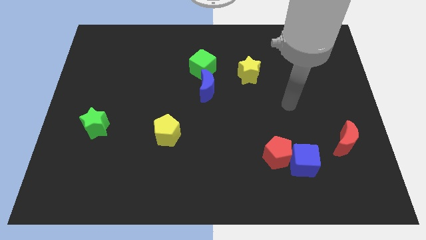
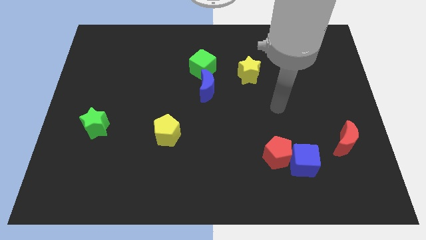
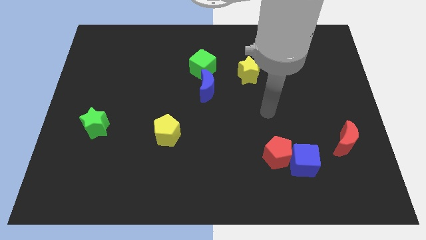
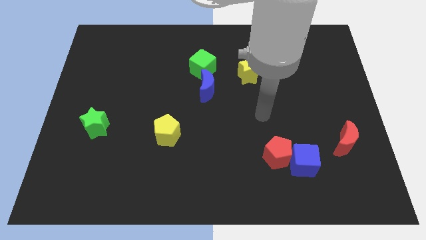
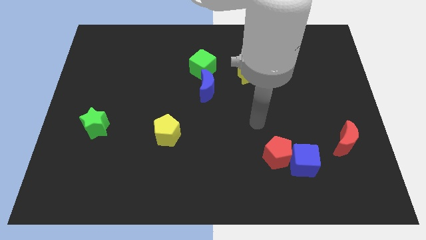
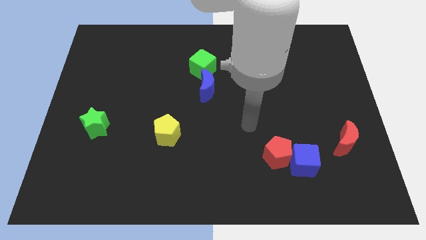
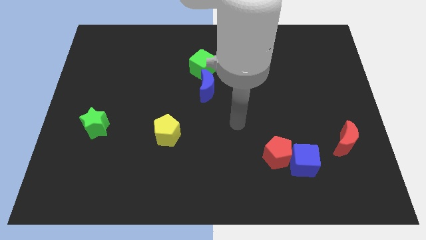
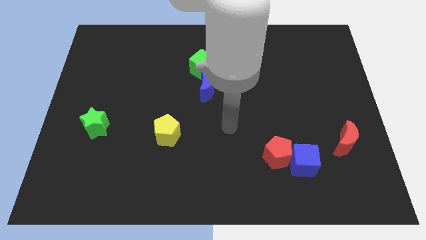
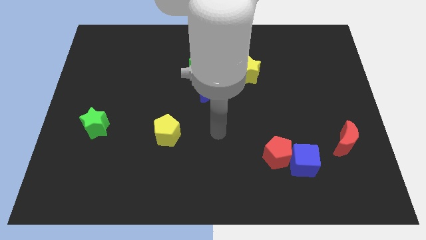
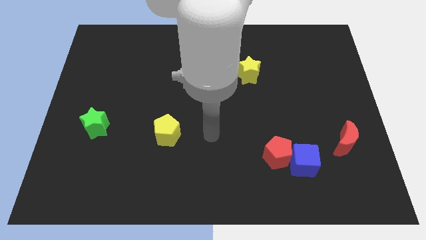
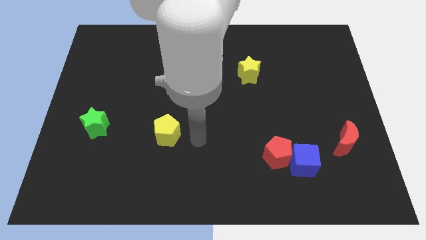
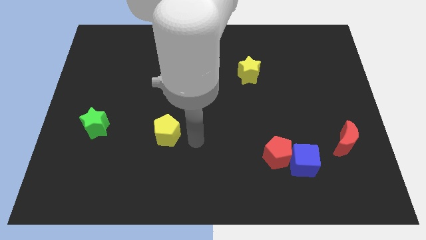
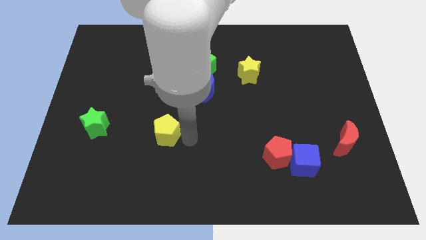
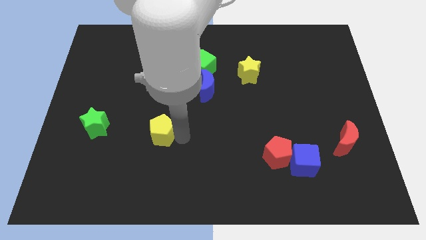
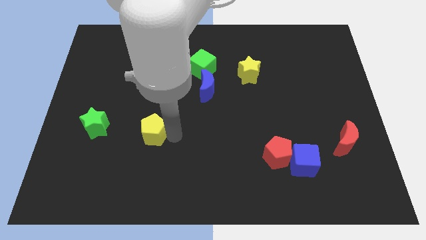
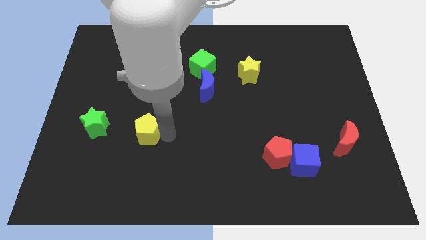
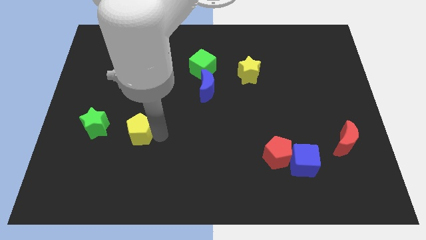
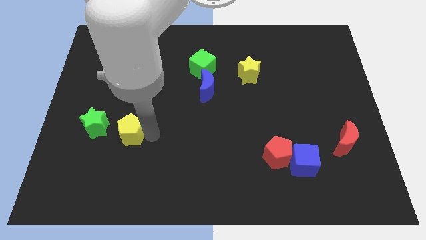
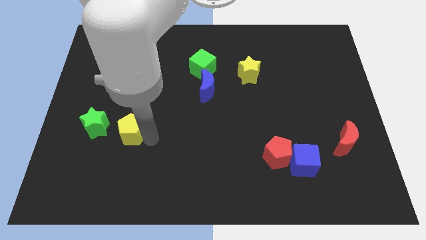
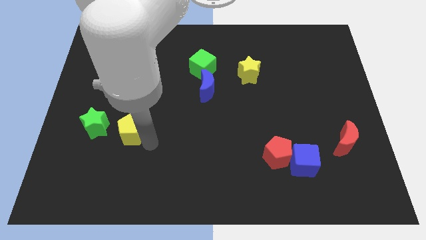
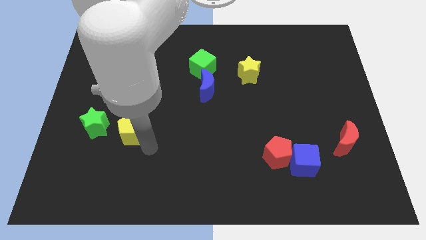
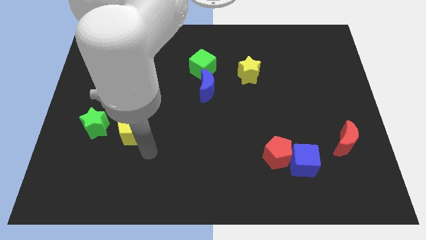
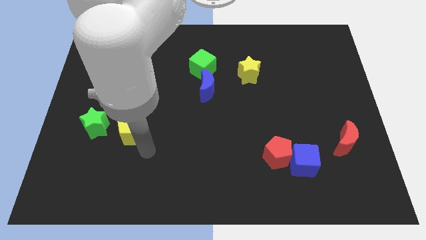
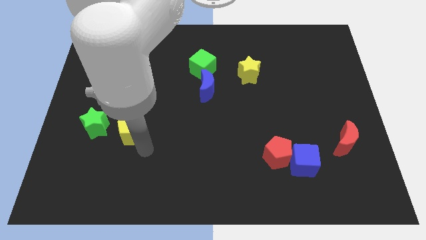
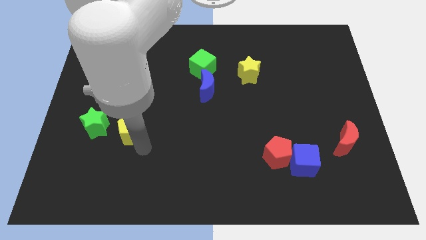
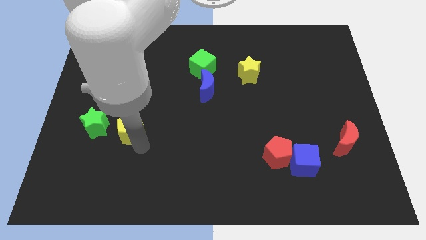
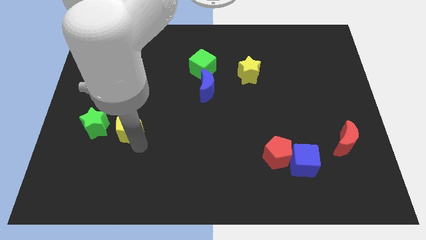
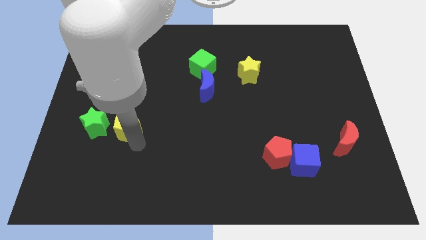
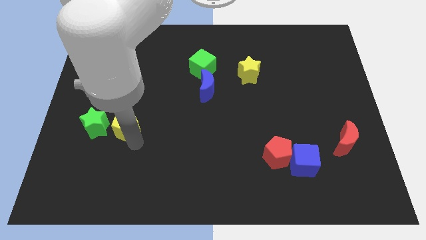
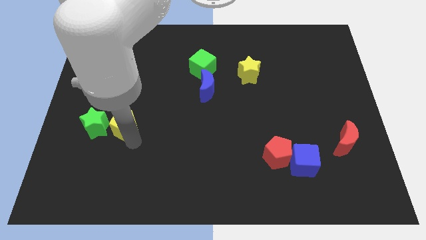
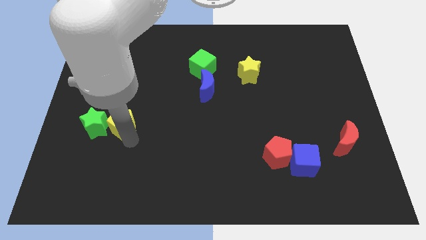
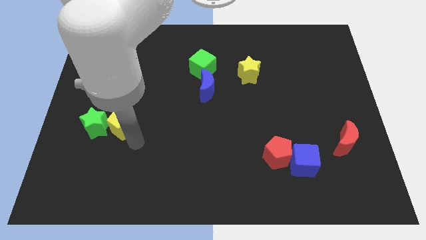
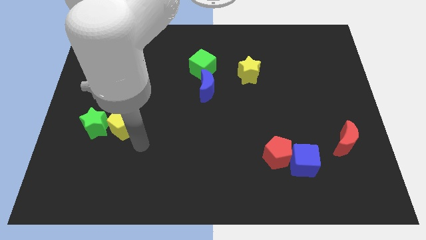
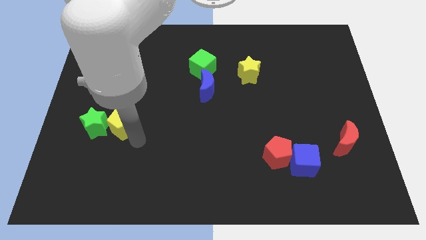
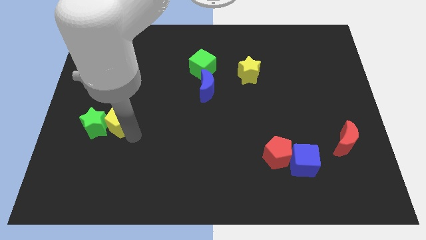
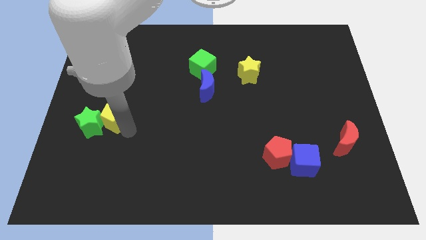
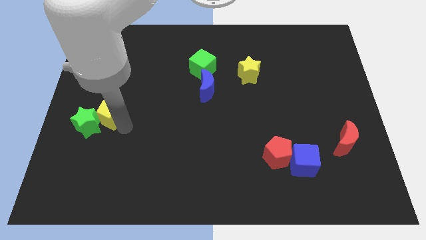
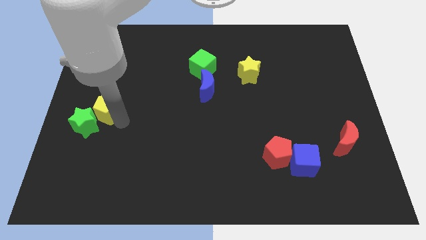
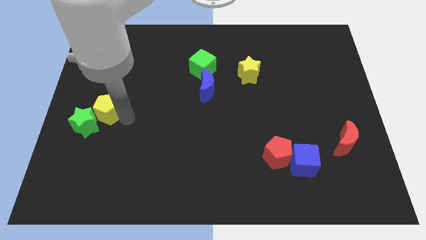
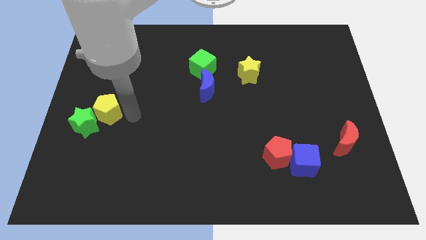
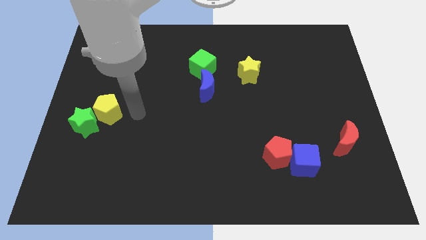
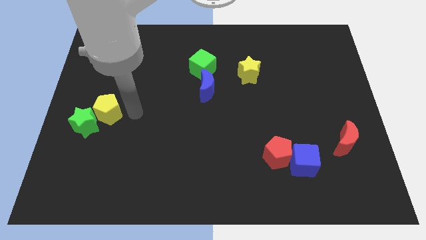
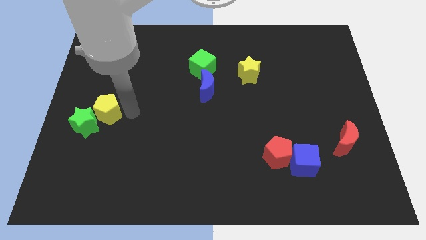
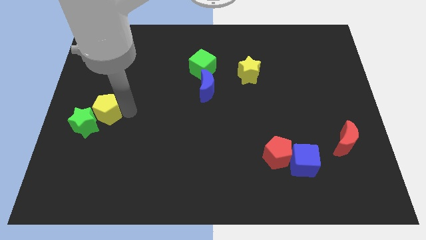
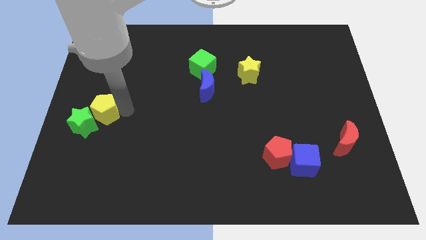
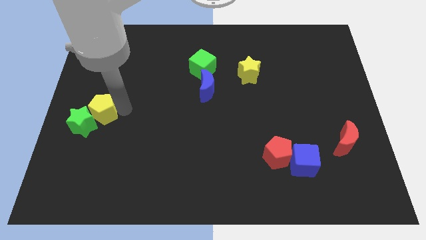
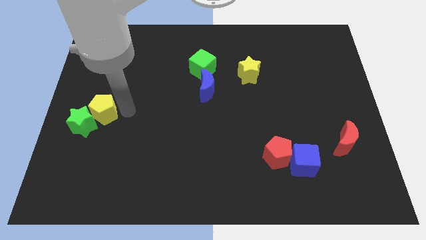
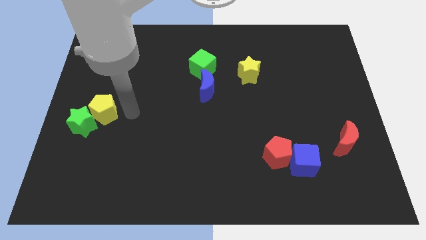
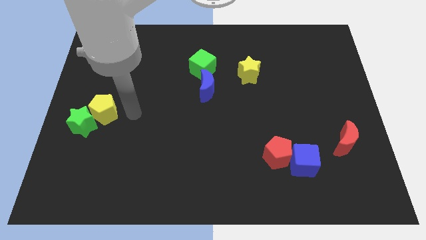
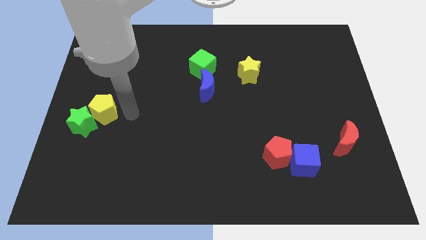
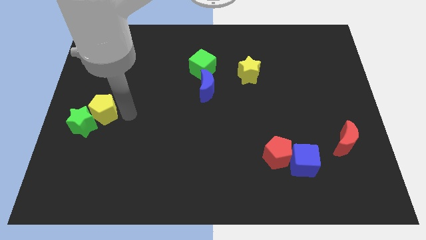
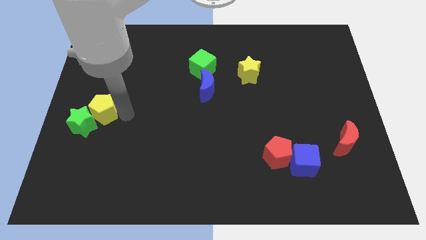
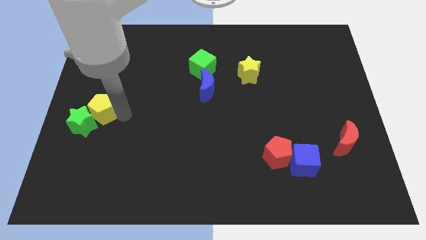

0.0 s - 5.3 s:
move the yellow pentagon to the left side
